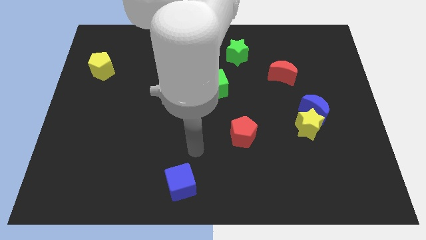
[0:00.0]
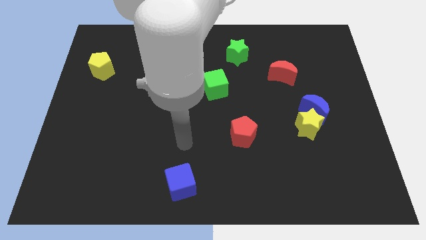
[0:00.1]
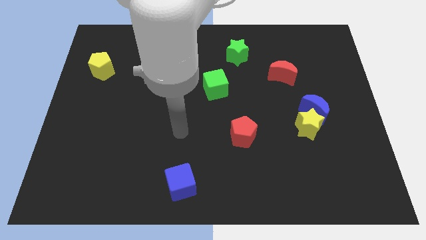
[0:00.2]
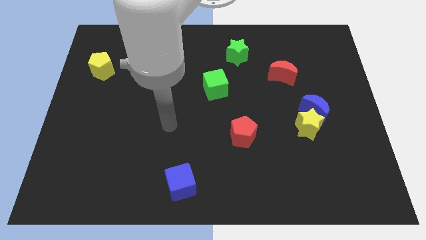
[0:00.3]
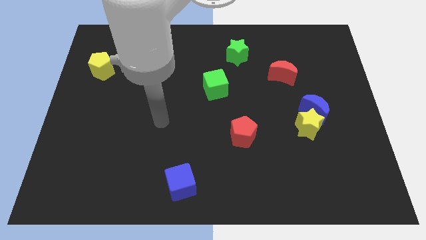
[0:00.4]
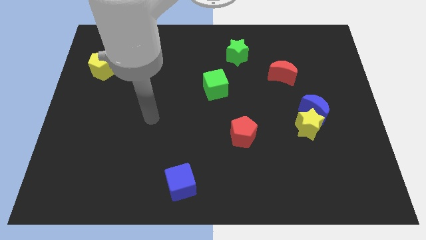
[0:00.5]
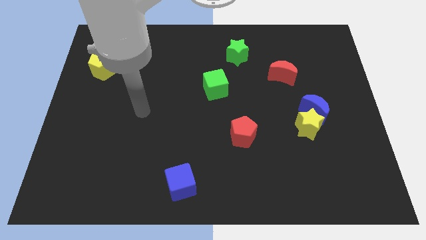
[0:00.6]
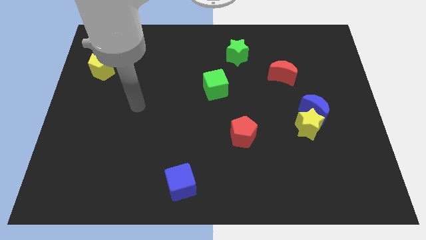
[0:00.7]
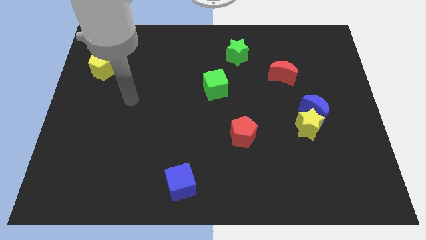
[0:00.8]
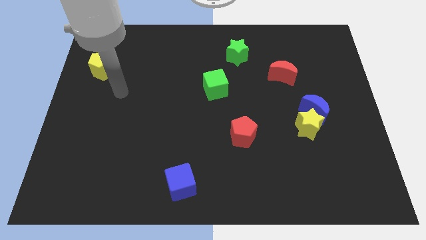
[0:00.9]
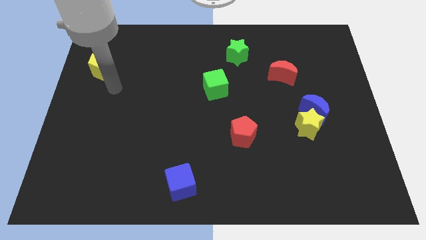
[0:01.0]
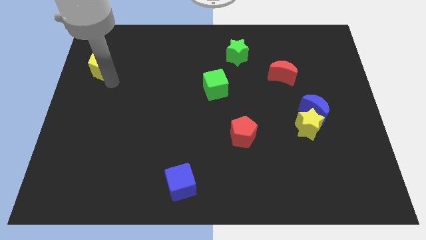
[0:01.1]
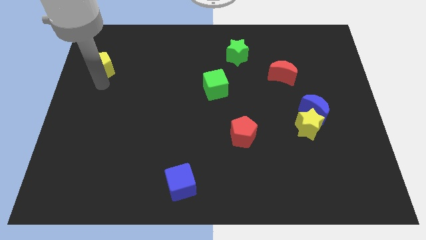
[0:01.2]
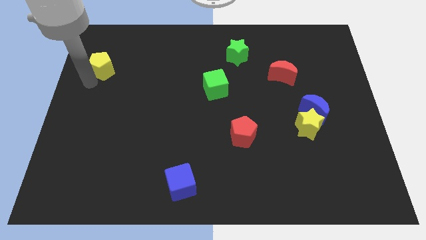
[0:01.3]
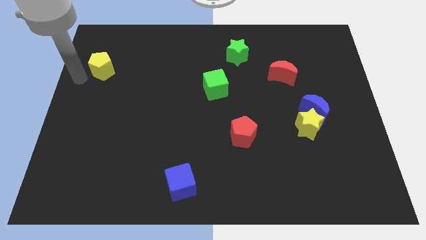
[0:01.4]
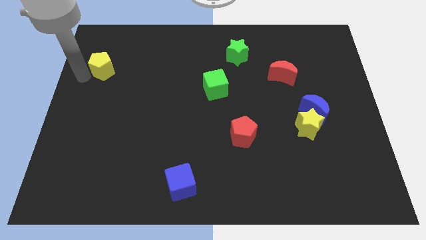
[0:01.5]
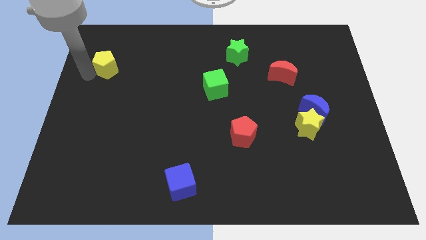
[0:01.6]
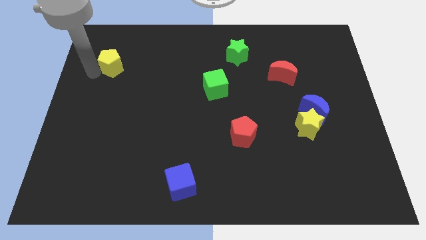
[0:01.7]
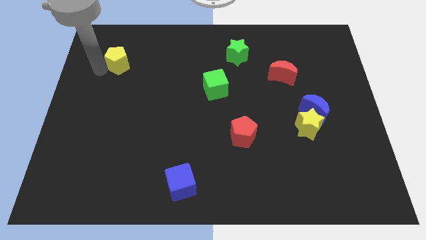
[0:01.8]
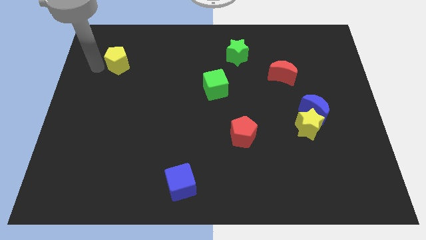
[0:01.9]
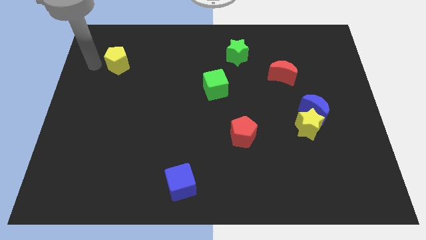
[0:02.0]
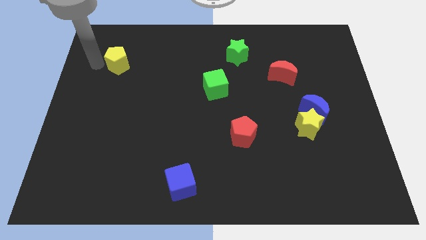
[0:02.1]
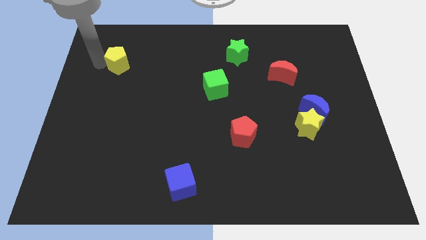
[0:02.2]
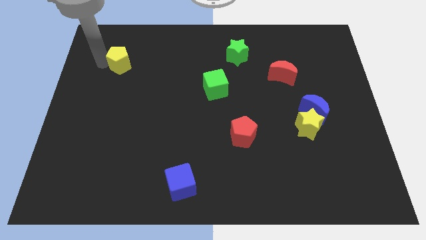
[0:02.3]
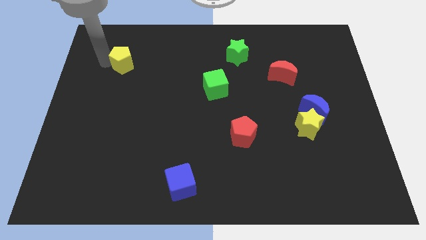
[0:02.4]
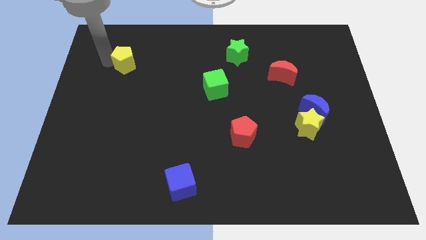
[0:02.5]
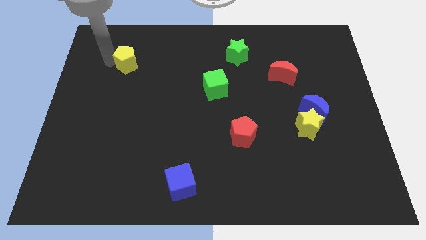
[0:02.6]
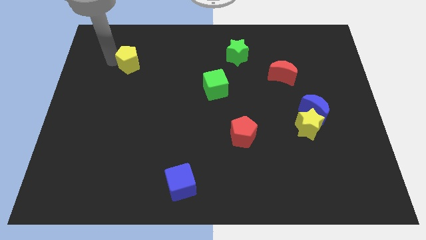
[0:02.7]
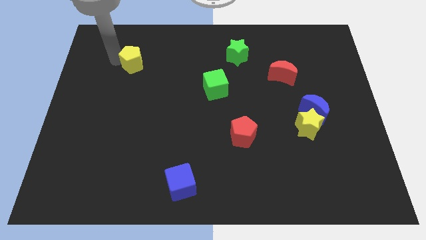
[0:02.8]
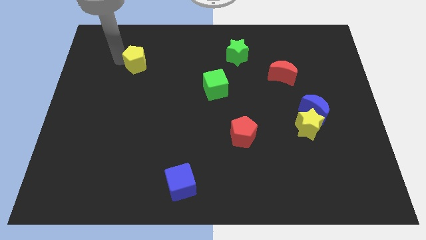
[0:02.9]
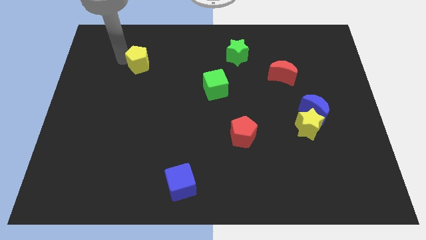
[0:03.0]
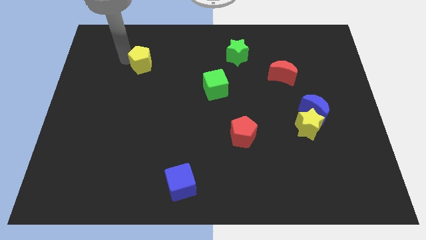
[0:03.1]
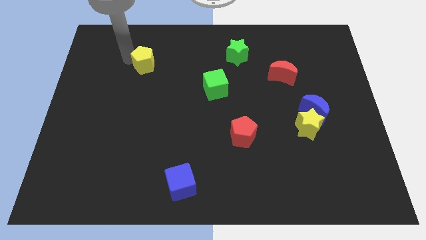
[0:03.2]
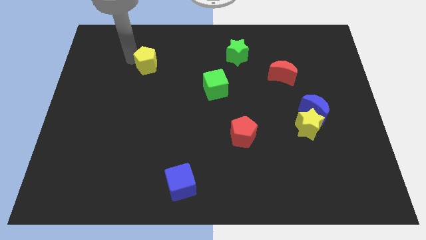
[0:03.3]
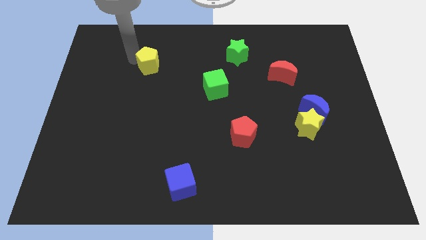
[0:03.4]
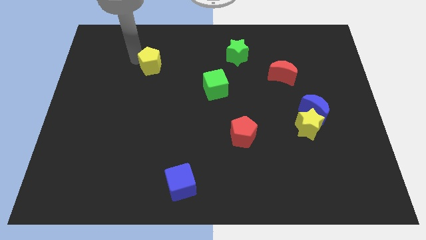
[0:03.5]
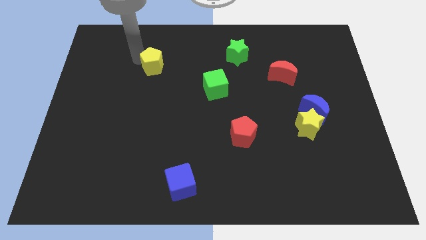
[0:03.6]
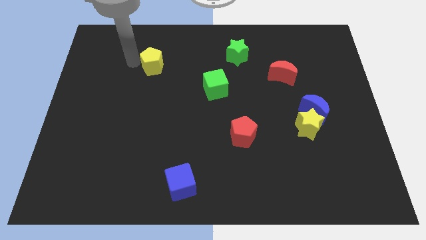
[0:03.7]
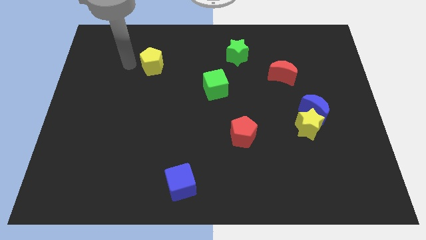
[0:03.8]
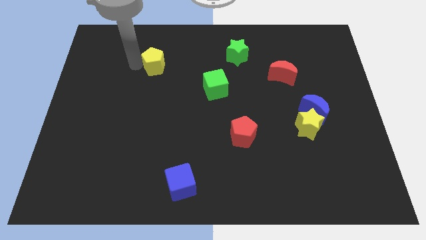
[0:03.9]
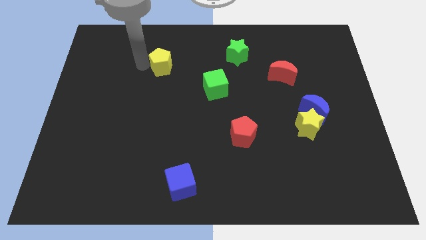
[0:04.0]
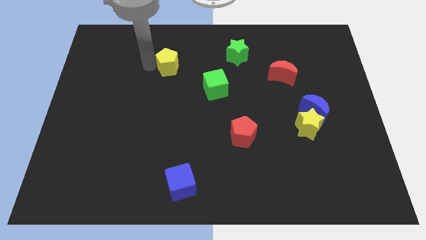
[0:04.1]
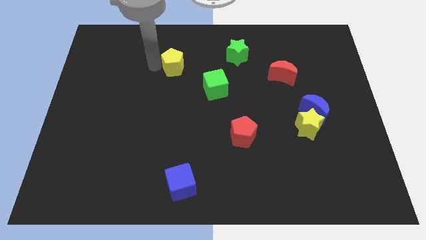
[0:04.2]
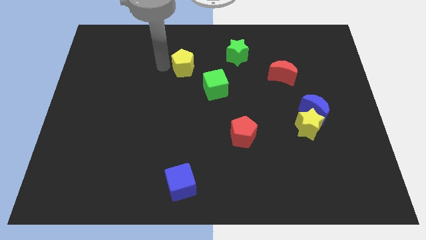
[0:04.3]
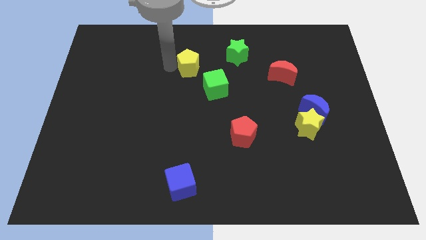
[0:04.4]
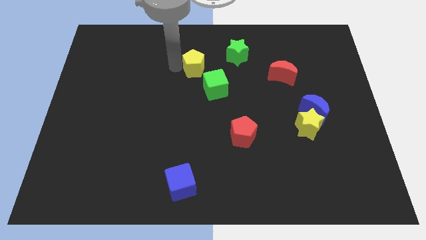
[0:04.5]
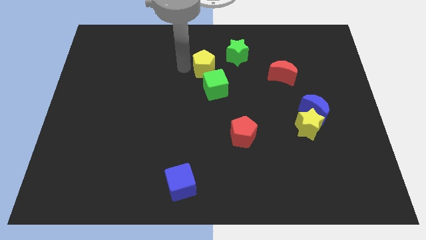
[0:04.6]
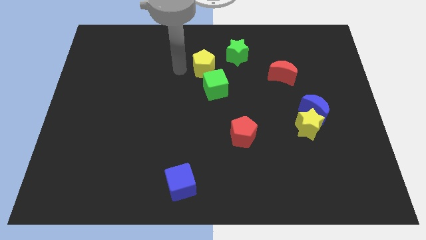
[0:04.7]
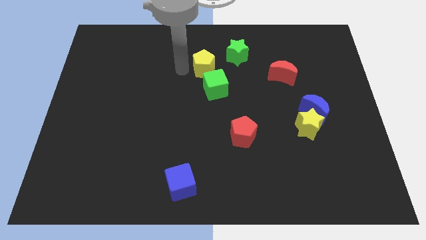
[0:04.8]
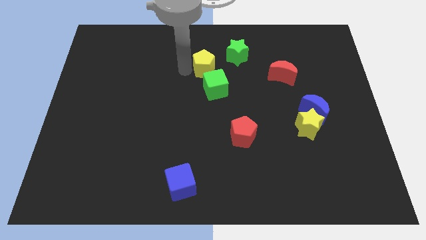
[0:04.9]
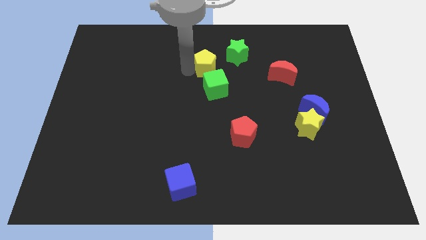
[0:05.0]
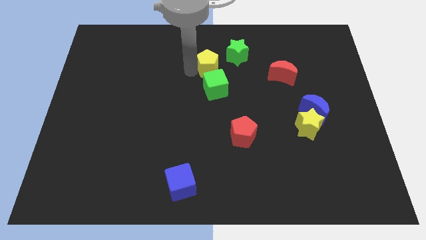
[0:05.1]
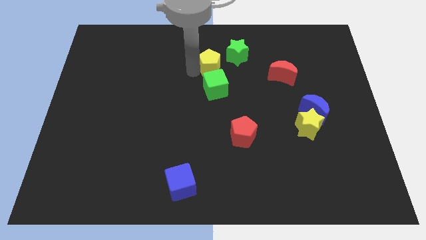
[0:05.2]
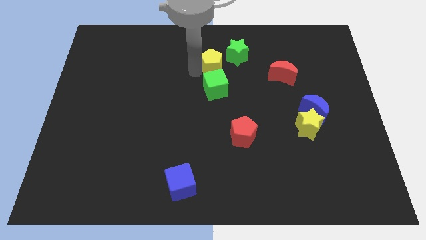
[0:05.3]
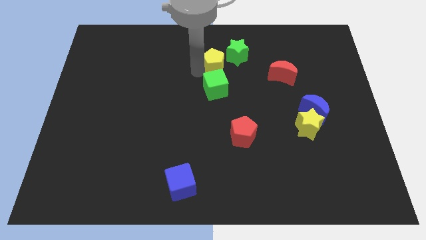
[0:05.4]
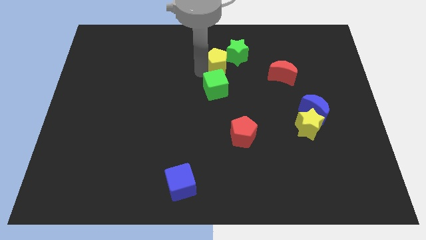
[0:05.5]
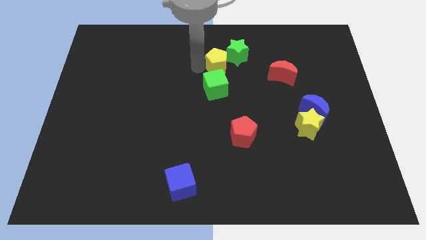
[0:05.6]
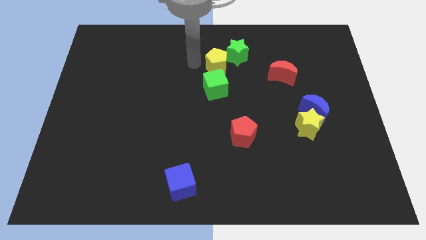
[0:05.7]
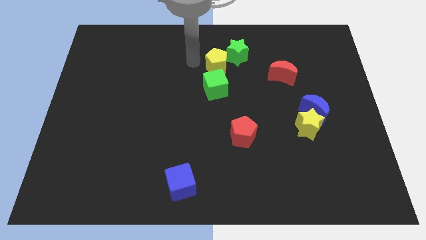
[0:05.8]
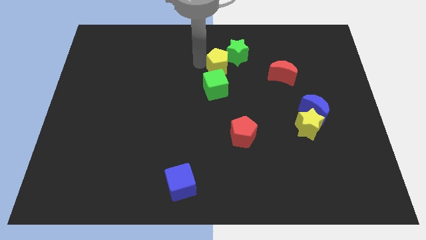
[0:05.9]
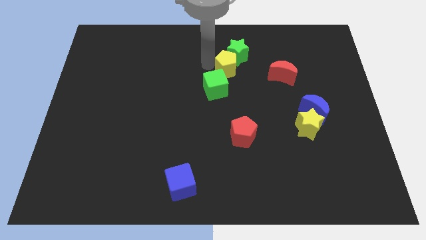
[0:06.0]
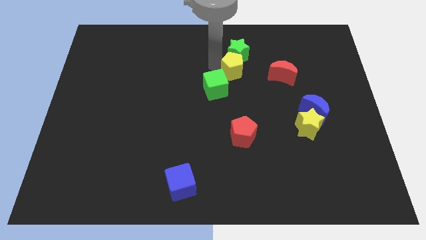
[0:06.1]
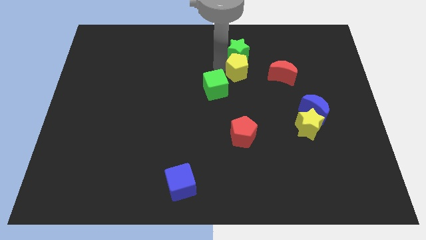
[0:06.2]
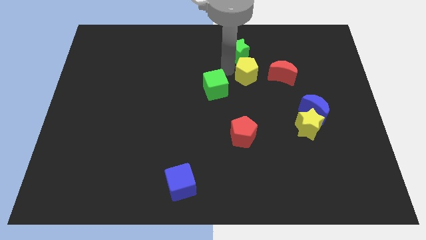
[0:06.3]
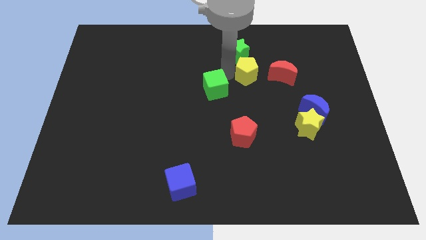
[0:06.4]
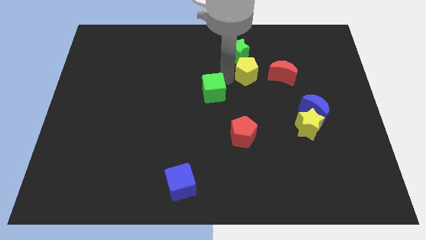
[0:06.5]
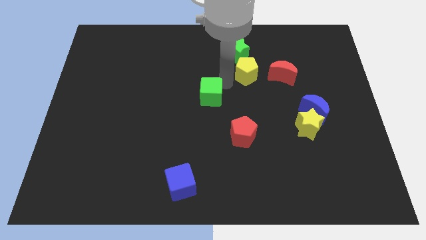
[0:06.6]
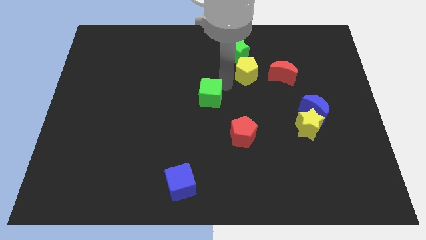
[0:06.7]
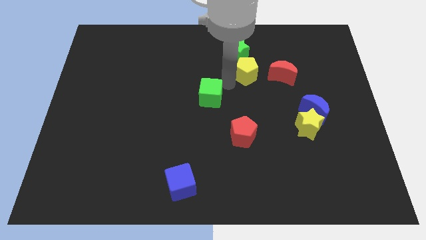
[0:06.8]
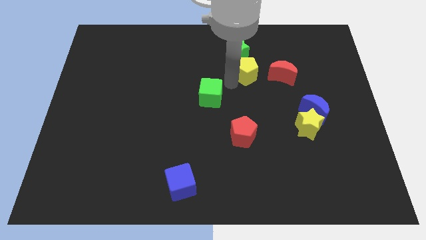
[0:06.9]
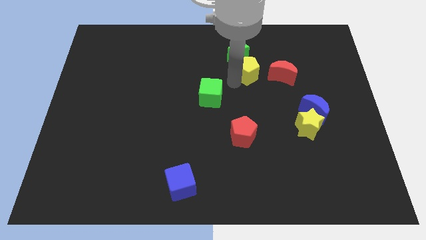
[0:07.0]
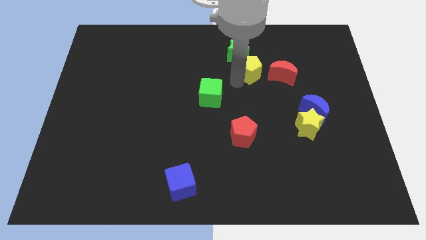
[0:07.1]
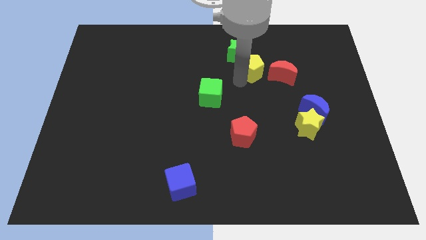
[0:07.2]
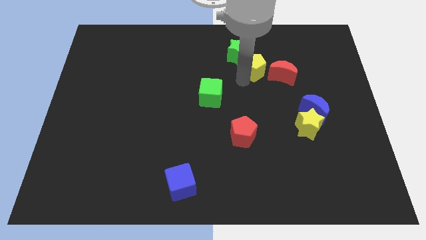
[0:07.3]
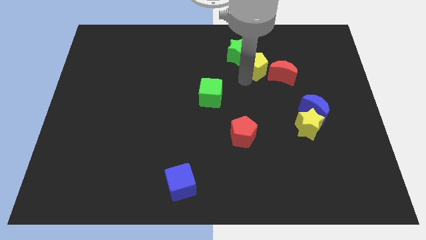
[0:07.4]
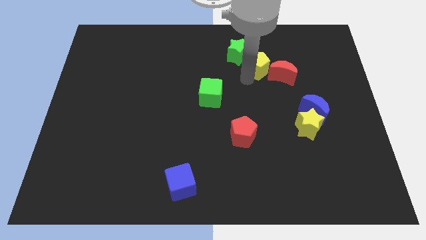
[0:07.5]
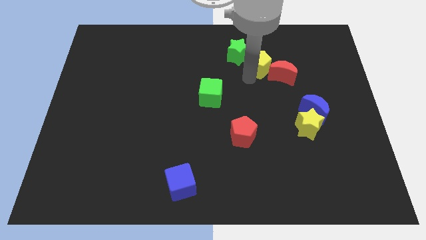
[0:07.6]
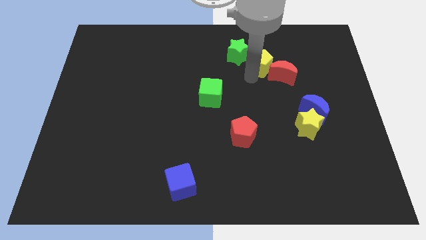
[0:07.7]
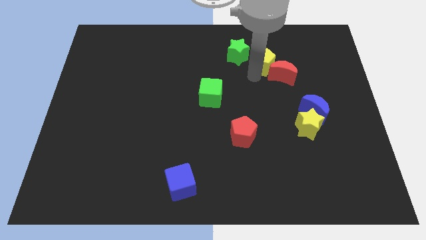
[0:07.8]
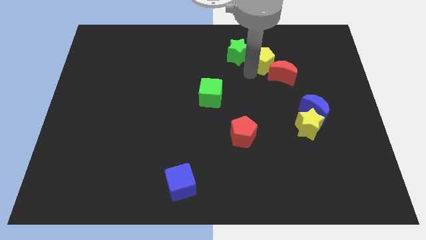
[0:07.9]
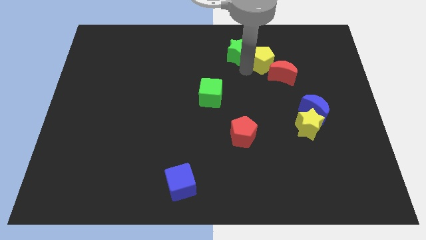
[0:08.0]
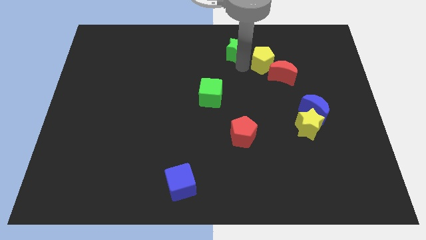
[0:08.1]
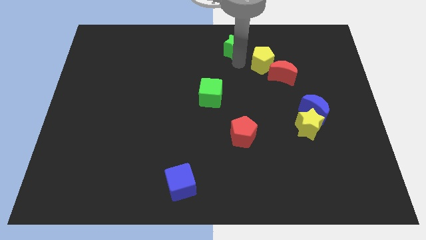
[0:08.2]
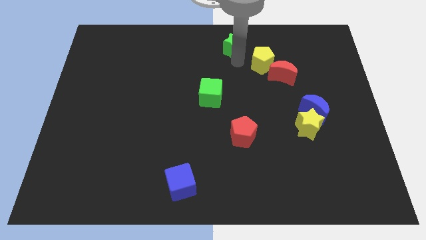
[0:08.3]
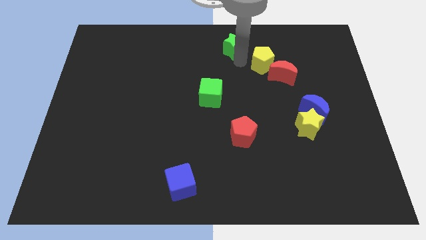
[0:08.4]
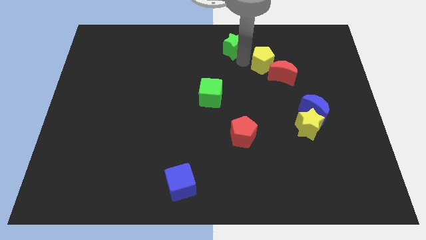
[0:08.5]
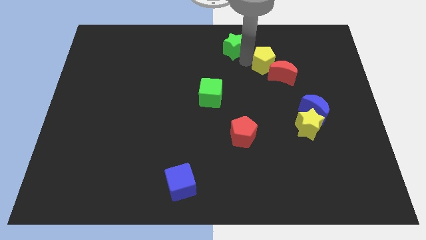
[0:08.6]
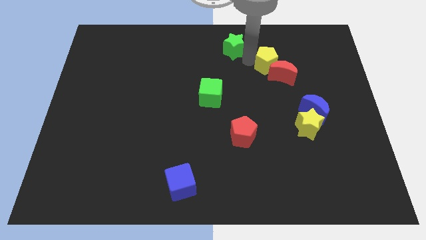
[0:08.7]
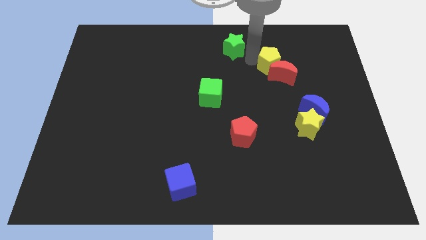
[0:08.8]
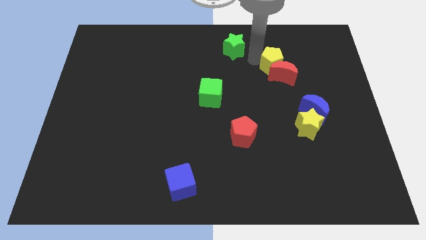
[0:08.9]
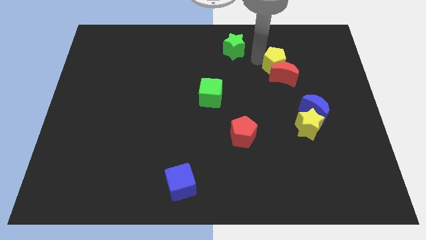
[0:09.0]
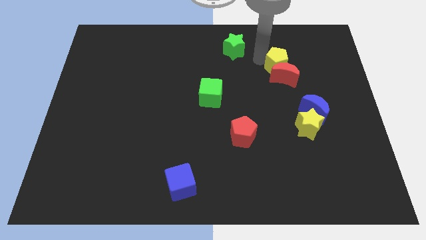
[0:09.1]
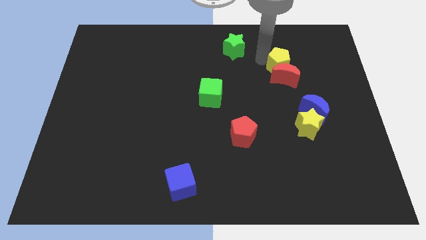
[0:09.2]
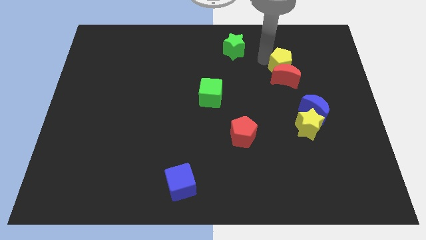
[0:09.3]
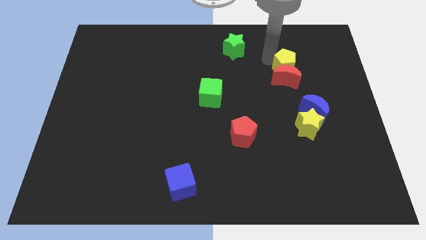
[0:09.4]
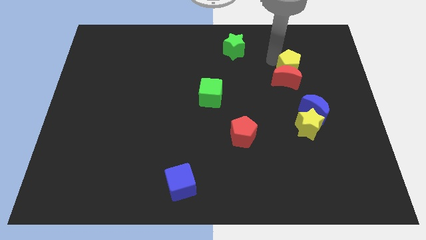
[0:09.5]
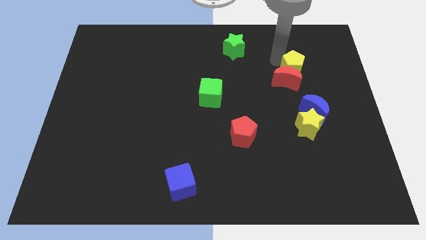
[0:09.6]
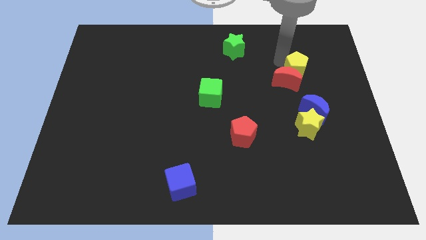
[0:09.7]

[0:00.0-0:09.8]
put the yellow pentagon right of the red moon
